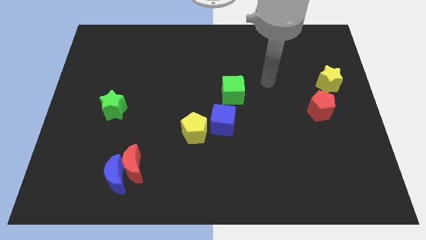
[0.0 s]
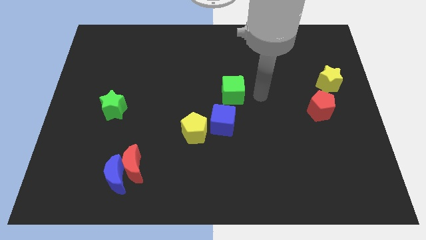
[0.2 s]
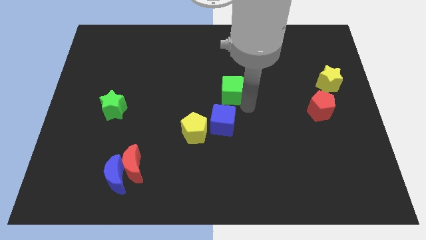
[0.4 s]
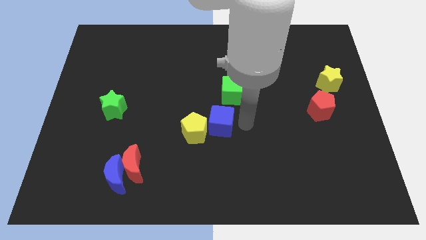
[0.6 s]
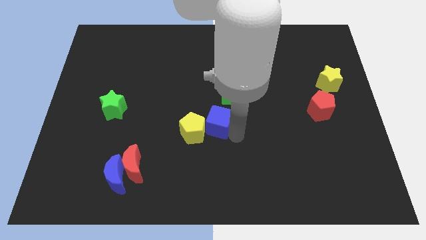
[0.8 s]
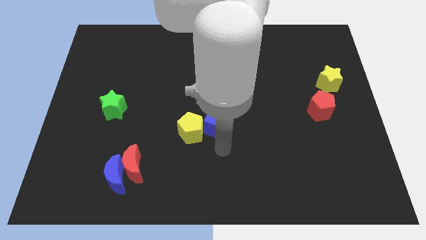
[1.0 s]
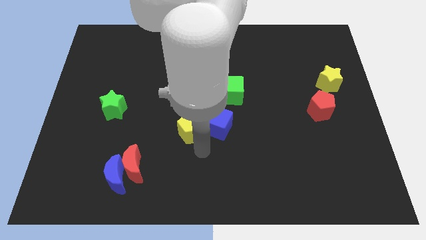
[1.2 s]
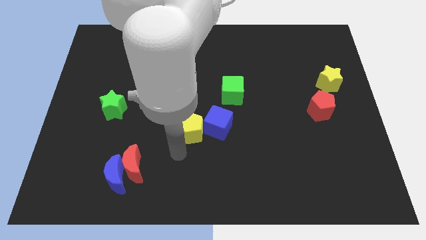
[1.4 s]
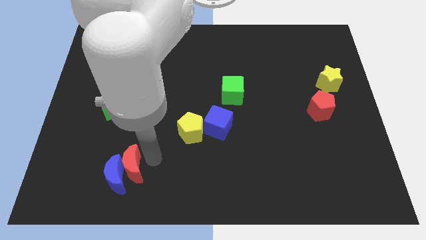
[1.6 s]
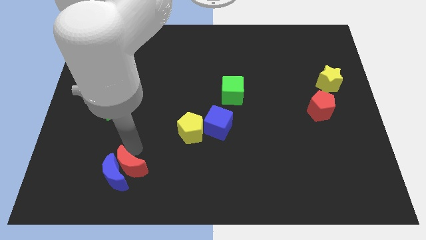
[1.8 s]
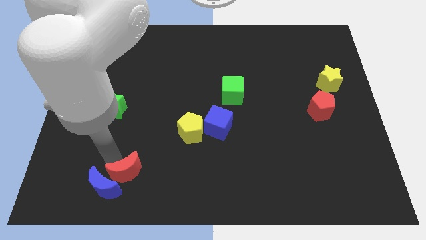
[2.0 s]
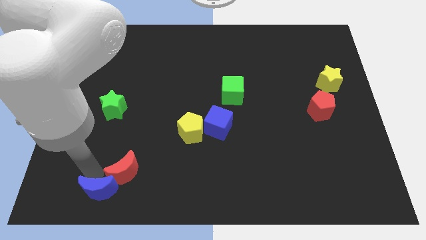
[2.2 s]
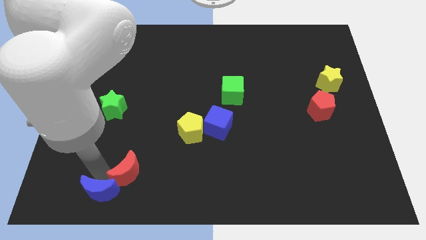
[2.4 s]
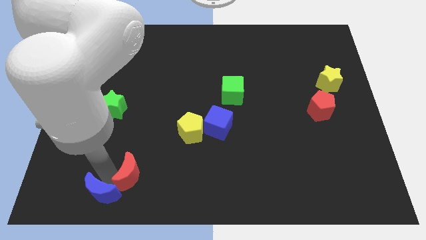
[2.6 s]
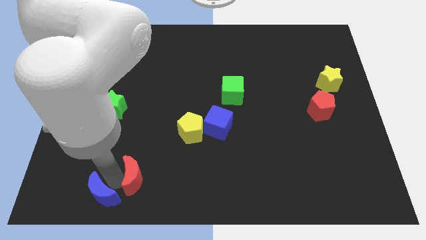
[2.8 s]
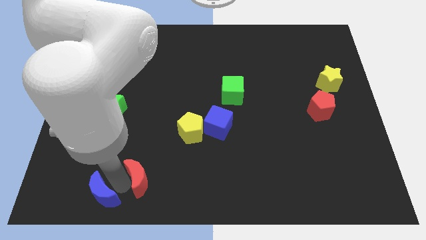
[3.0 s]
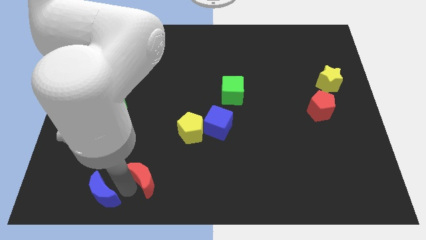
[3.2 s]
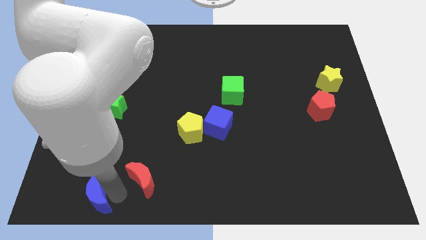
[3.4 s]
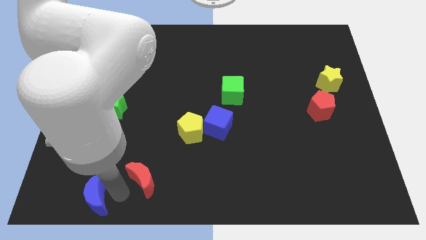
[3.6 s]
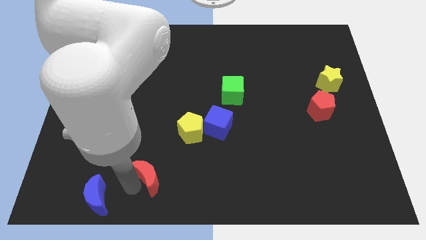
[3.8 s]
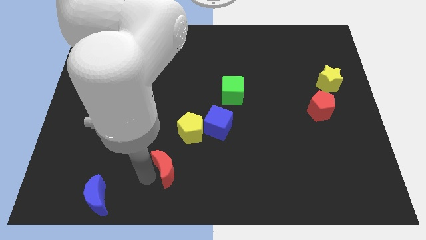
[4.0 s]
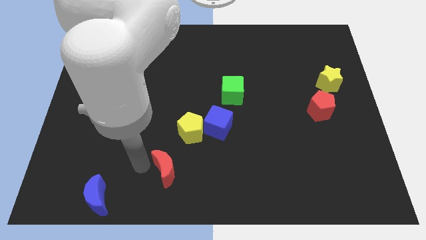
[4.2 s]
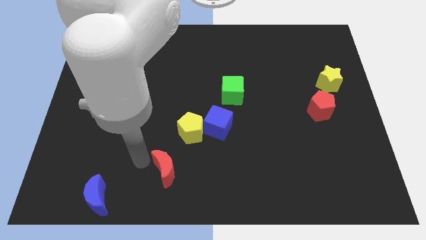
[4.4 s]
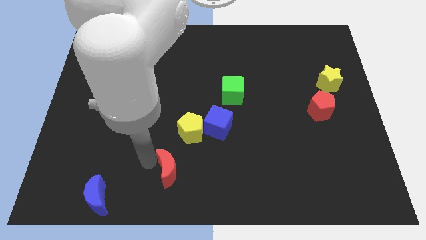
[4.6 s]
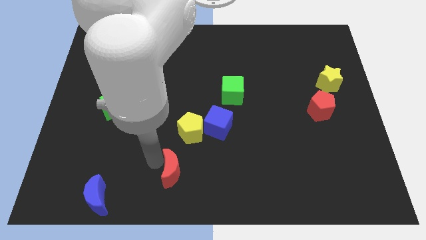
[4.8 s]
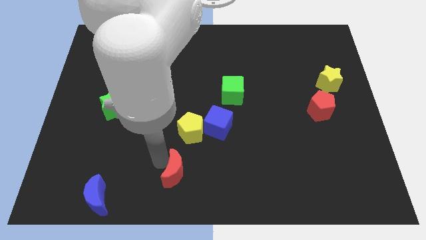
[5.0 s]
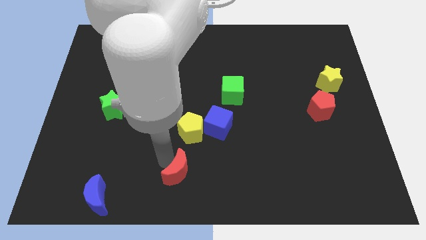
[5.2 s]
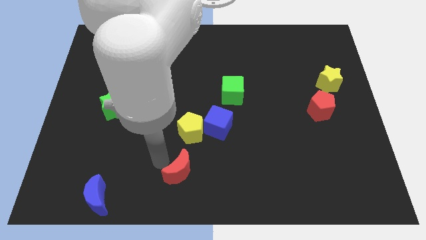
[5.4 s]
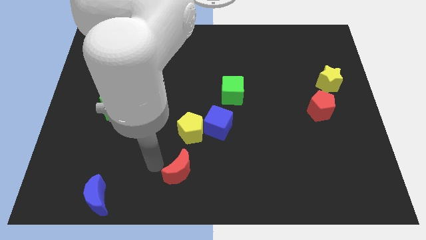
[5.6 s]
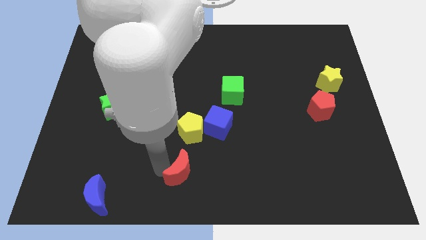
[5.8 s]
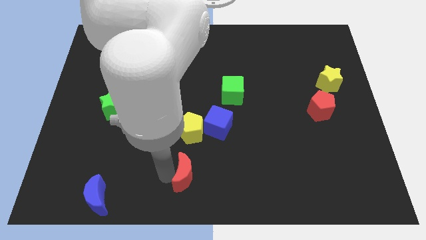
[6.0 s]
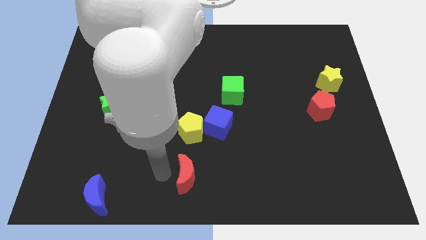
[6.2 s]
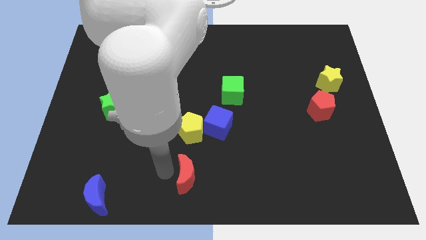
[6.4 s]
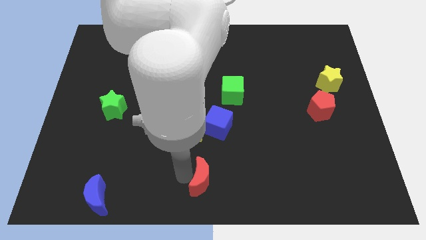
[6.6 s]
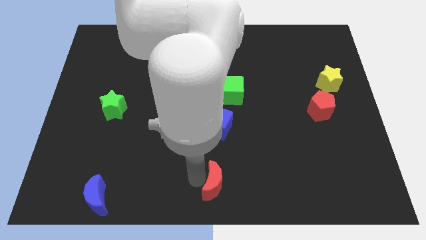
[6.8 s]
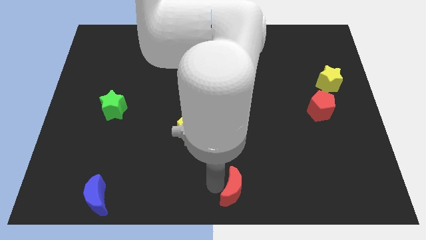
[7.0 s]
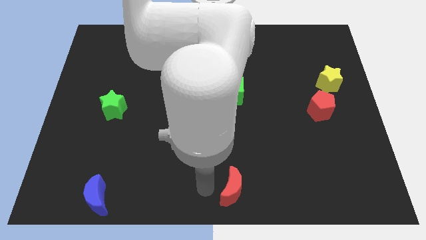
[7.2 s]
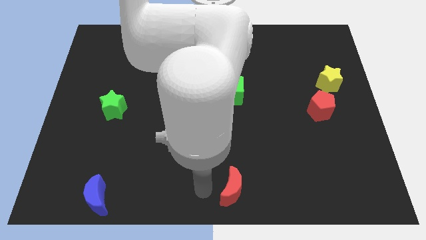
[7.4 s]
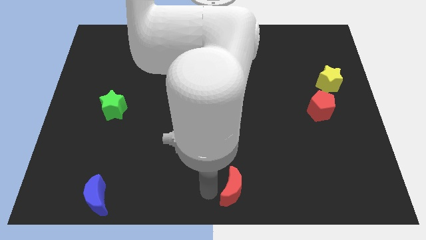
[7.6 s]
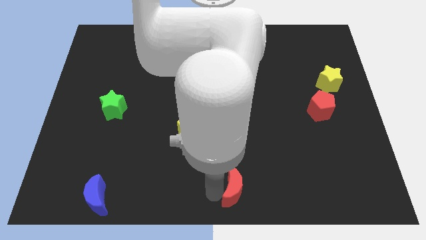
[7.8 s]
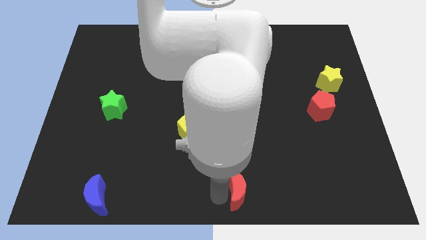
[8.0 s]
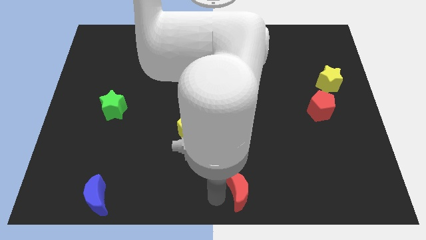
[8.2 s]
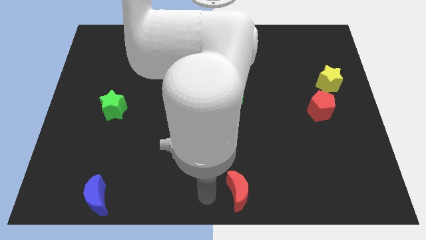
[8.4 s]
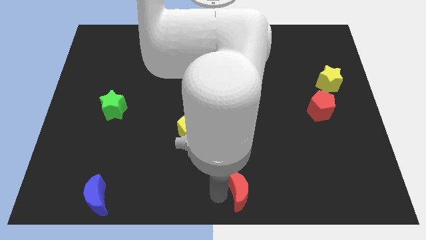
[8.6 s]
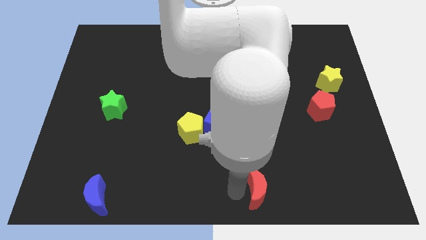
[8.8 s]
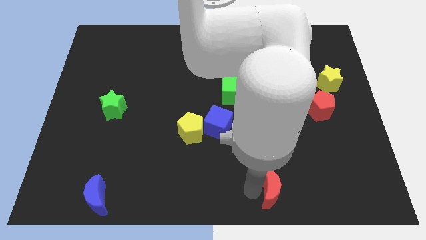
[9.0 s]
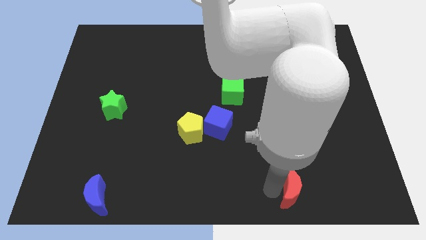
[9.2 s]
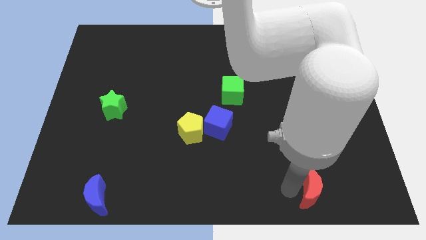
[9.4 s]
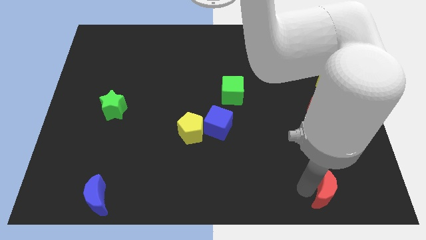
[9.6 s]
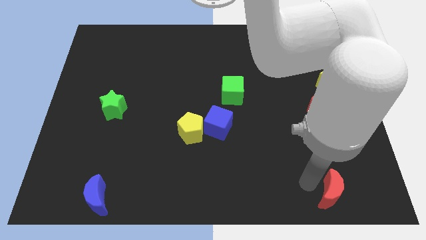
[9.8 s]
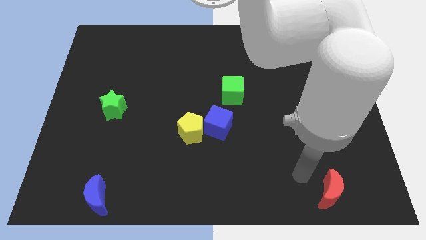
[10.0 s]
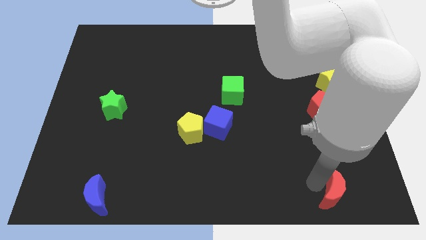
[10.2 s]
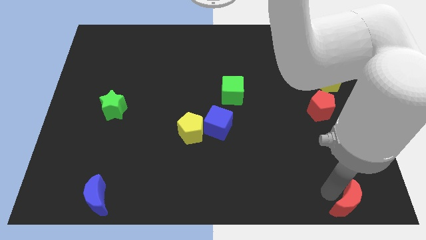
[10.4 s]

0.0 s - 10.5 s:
put the red moon to the bottom right

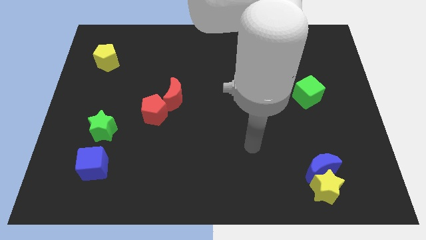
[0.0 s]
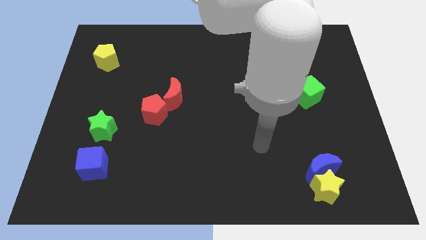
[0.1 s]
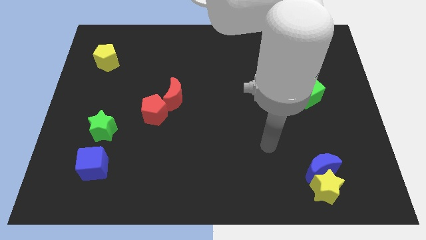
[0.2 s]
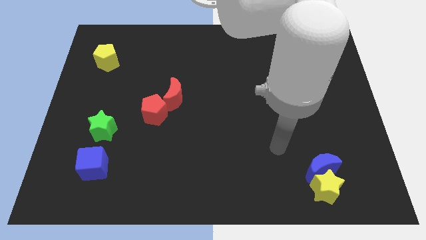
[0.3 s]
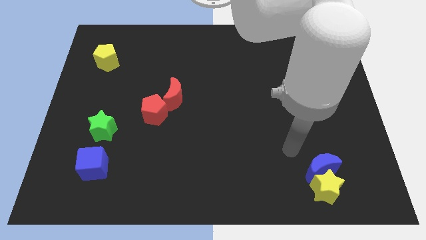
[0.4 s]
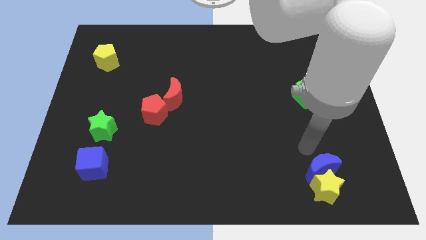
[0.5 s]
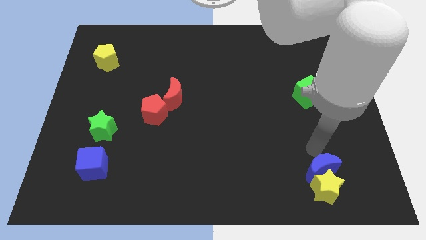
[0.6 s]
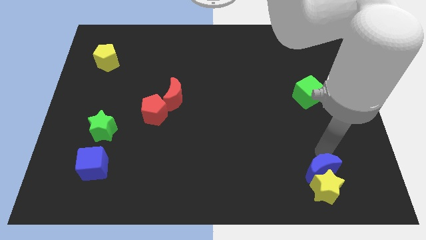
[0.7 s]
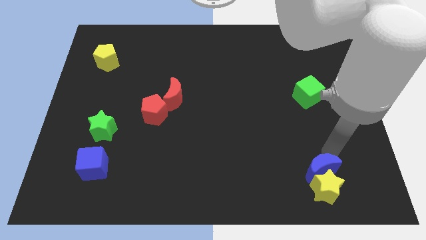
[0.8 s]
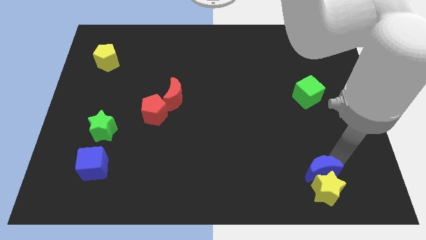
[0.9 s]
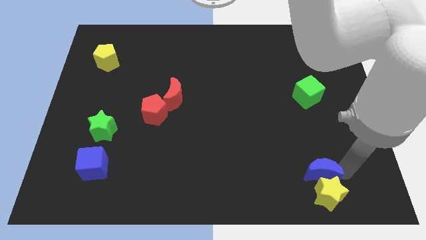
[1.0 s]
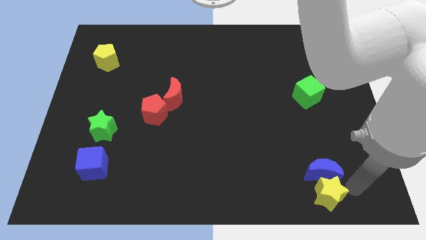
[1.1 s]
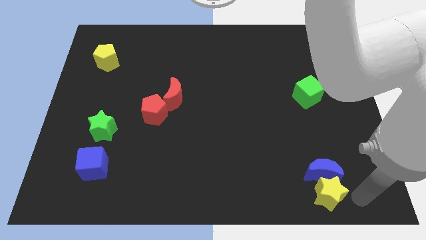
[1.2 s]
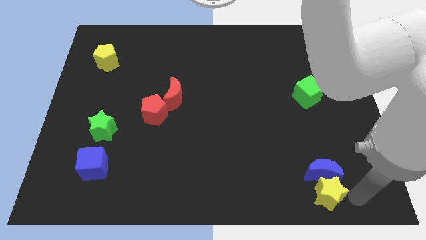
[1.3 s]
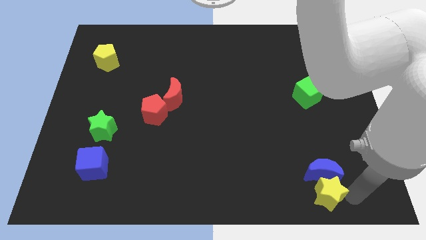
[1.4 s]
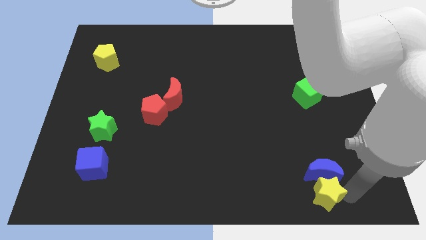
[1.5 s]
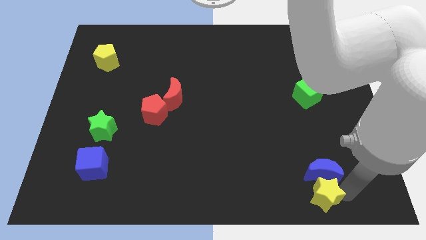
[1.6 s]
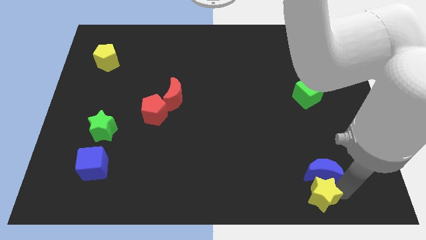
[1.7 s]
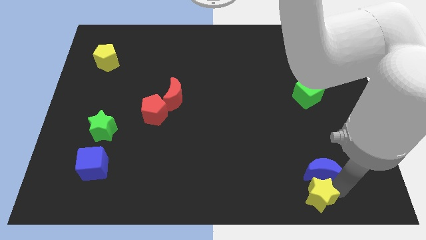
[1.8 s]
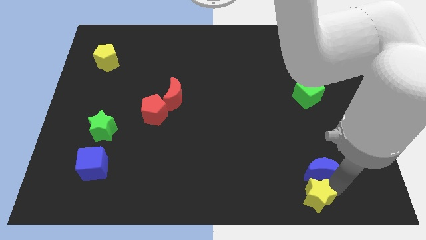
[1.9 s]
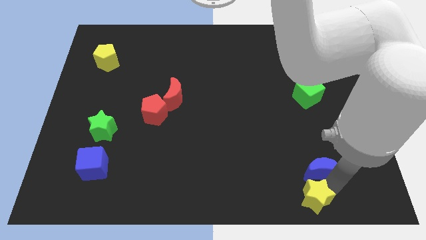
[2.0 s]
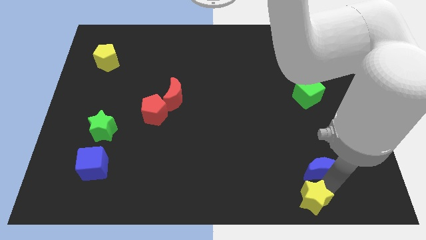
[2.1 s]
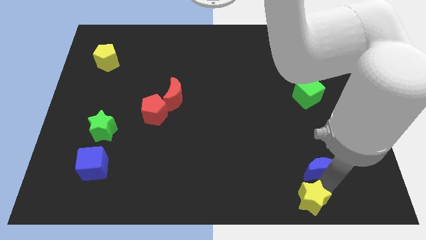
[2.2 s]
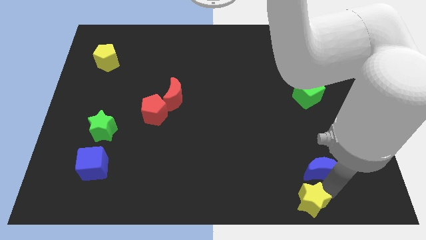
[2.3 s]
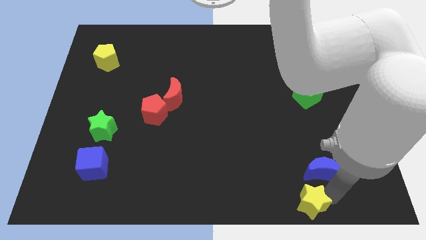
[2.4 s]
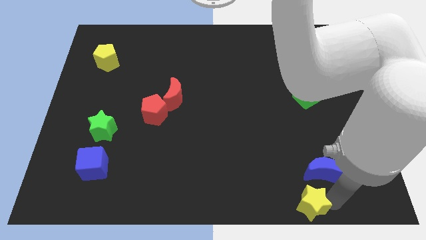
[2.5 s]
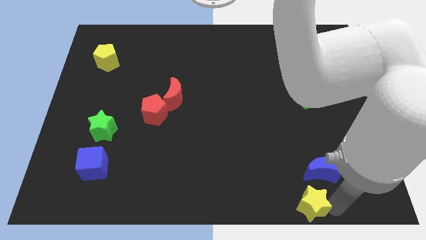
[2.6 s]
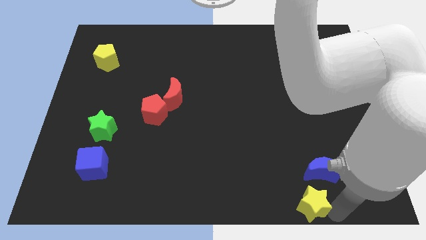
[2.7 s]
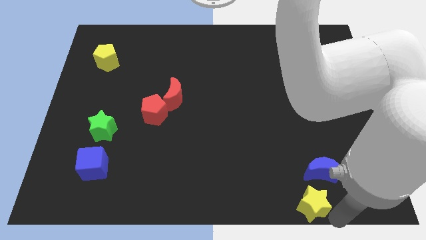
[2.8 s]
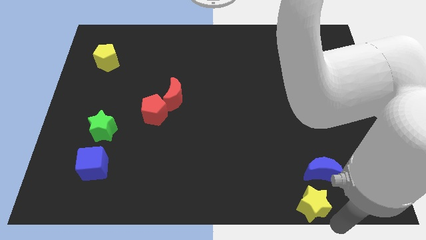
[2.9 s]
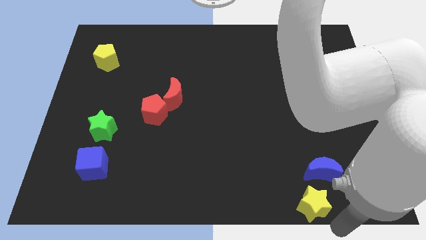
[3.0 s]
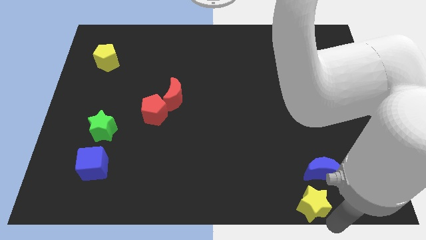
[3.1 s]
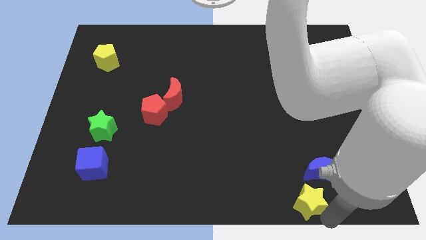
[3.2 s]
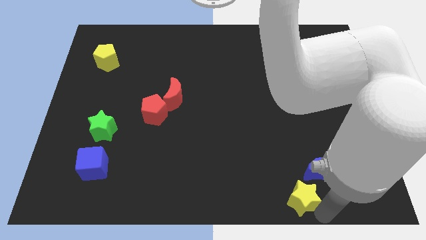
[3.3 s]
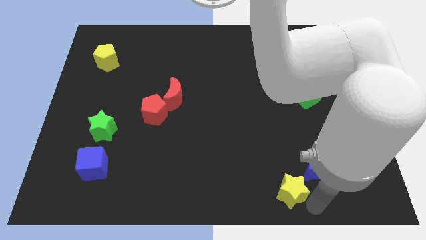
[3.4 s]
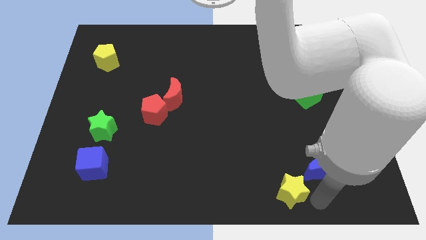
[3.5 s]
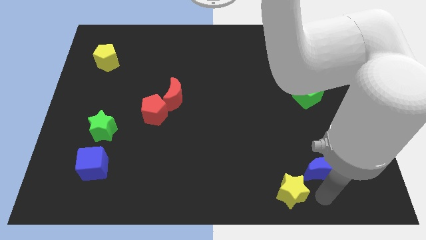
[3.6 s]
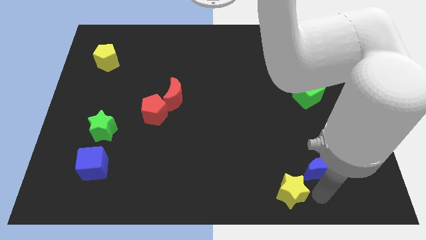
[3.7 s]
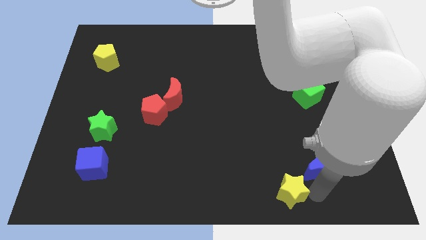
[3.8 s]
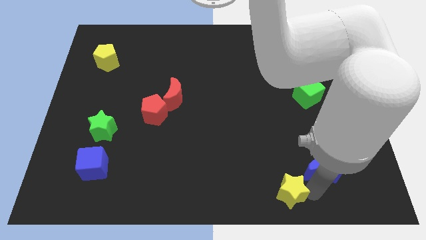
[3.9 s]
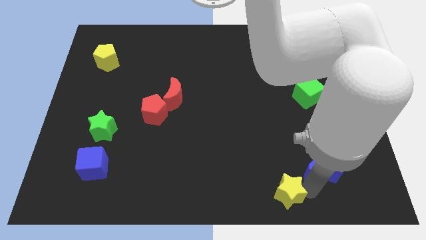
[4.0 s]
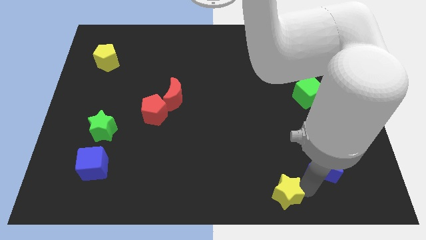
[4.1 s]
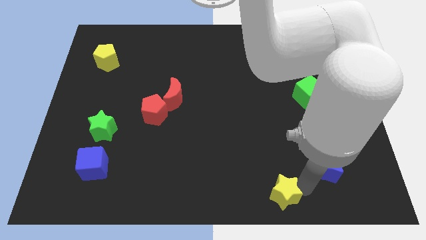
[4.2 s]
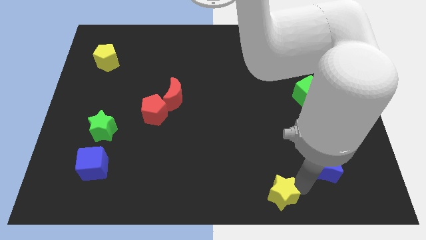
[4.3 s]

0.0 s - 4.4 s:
put the yellow star to the bottom side
